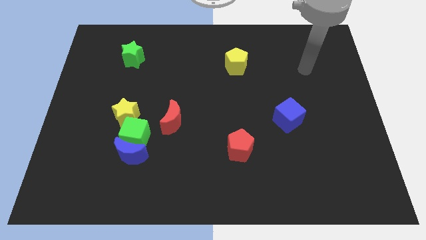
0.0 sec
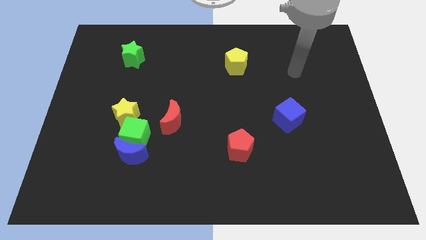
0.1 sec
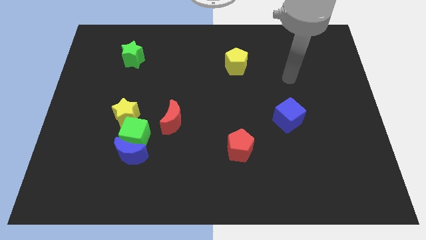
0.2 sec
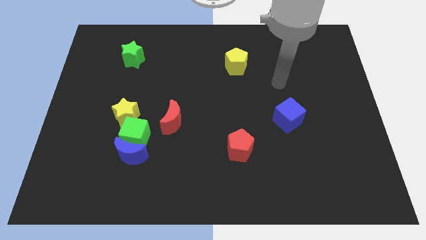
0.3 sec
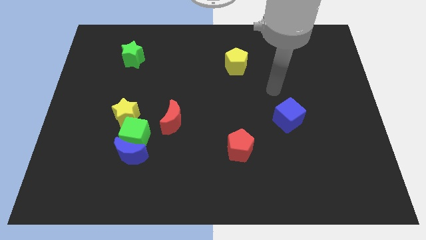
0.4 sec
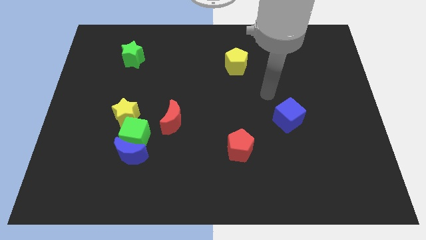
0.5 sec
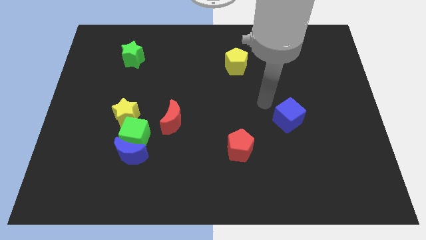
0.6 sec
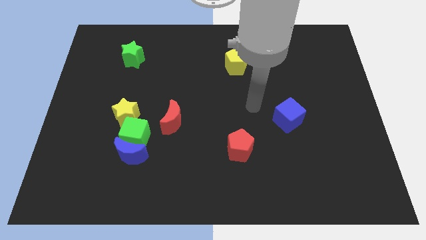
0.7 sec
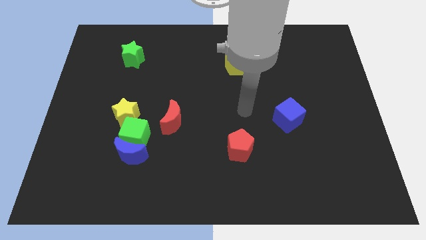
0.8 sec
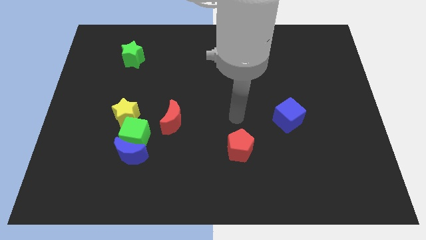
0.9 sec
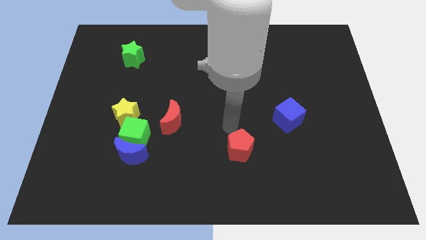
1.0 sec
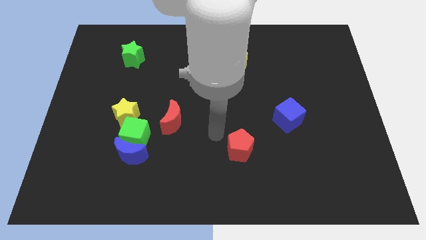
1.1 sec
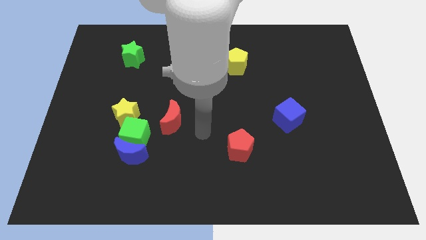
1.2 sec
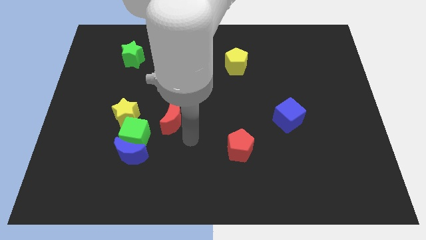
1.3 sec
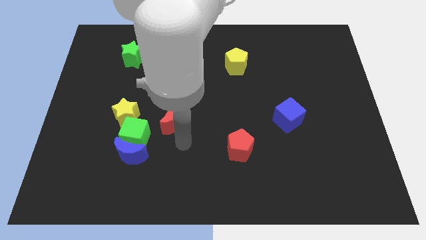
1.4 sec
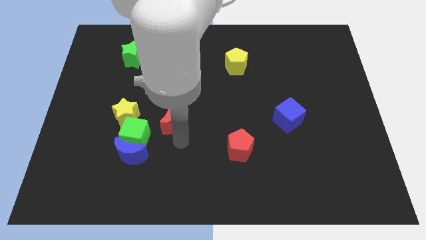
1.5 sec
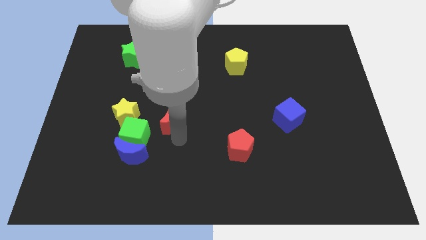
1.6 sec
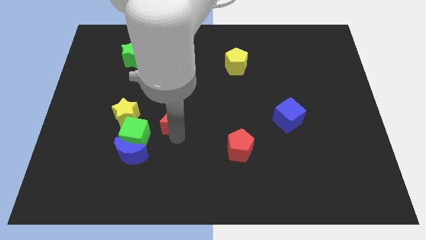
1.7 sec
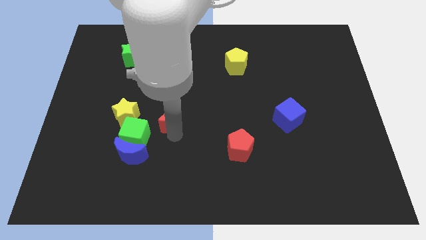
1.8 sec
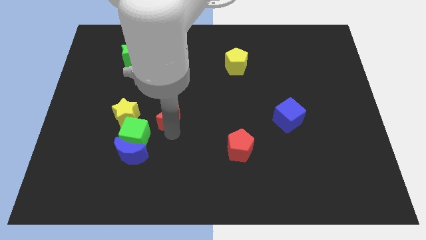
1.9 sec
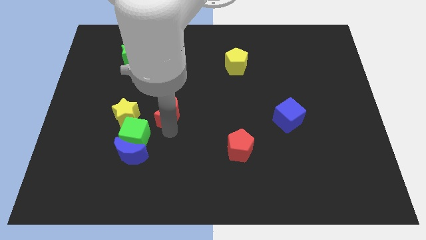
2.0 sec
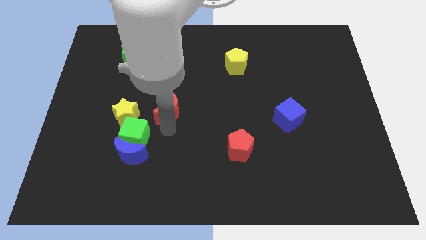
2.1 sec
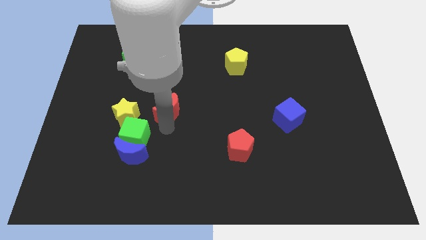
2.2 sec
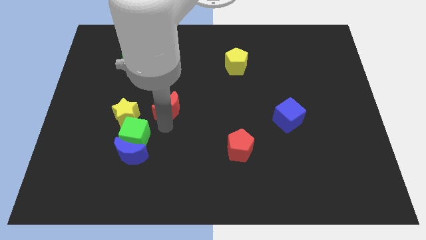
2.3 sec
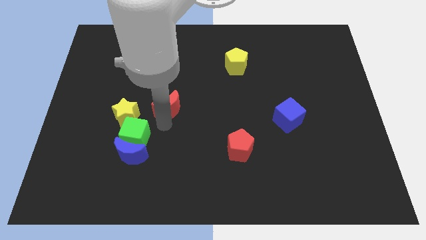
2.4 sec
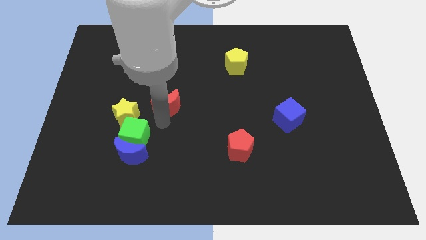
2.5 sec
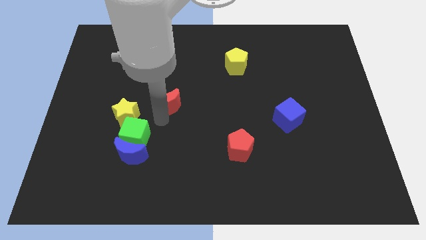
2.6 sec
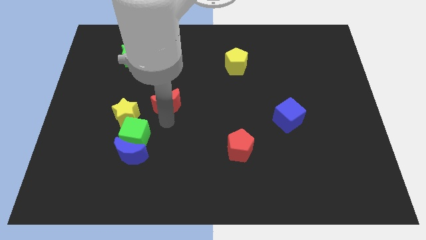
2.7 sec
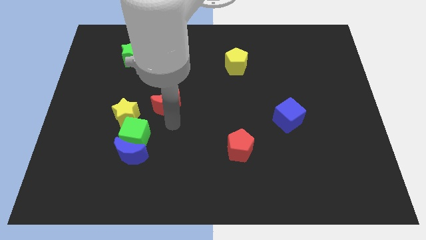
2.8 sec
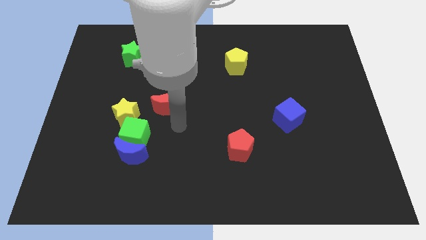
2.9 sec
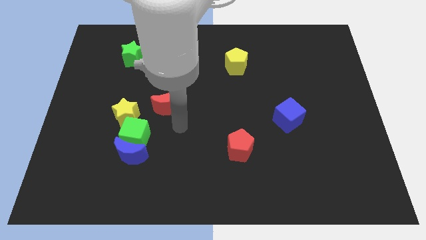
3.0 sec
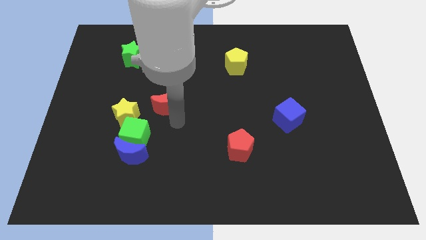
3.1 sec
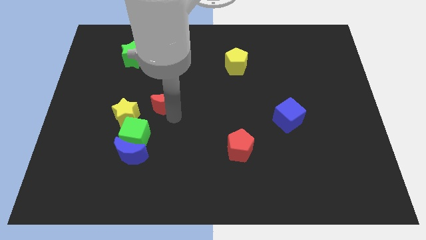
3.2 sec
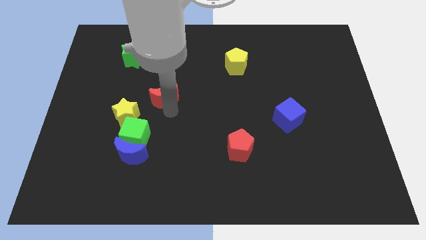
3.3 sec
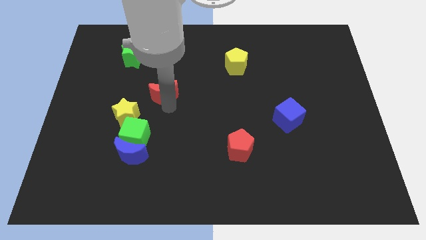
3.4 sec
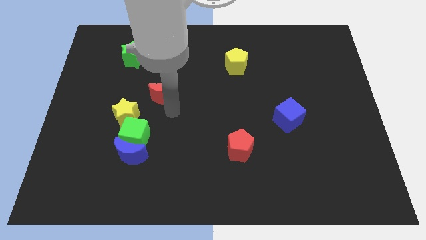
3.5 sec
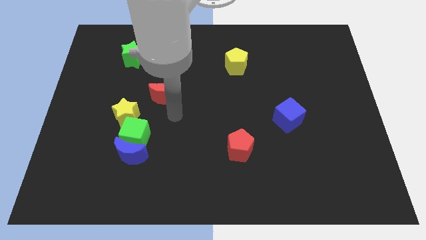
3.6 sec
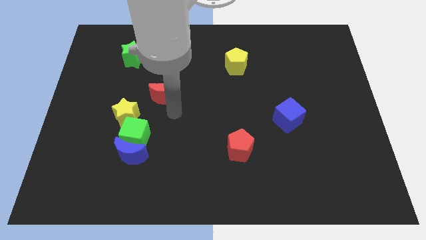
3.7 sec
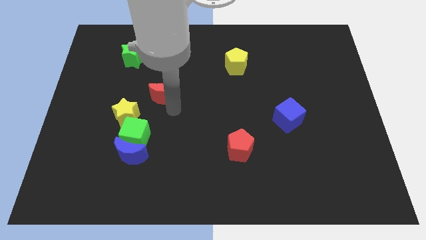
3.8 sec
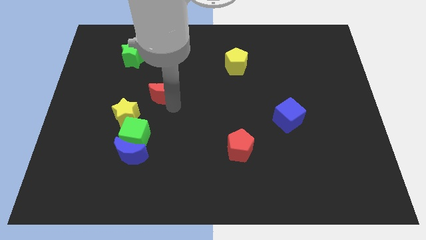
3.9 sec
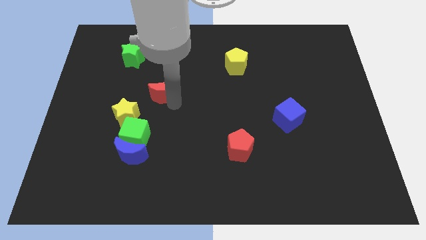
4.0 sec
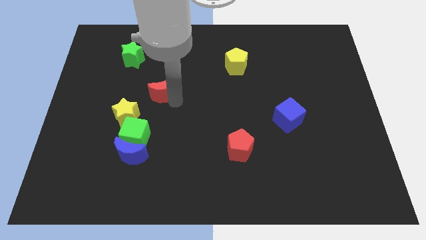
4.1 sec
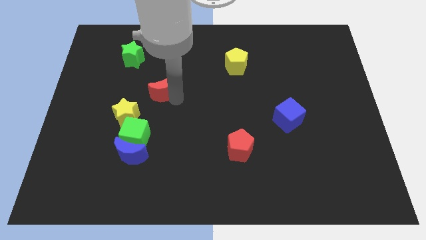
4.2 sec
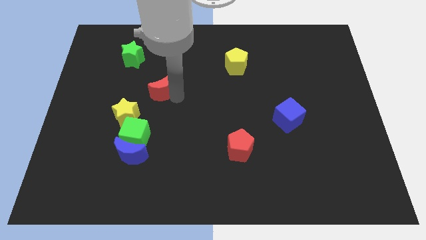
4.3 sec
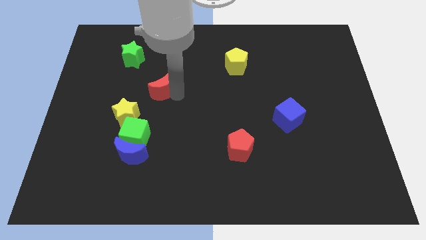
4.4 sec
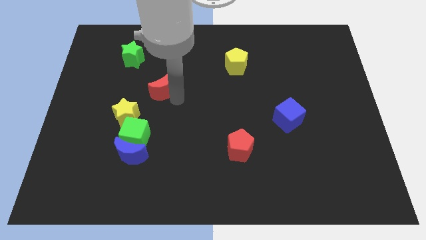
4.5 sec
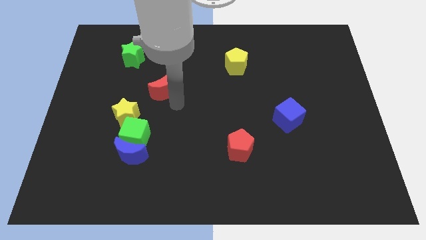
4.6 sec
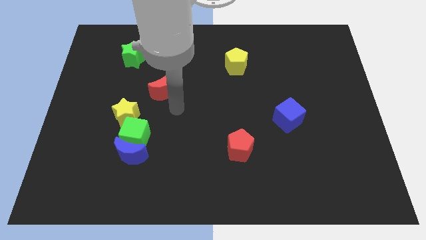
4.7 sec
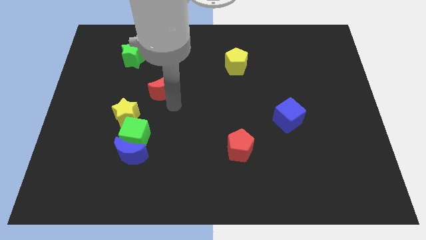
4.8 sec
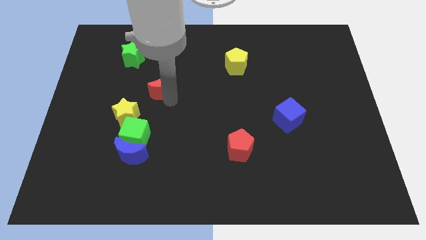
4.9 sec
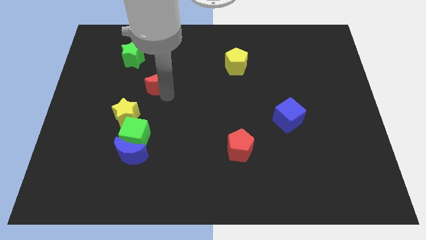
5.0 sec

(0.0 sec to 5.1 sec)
move the red moon diagonally down and to the right of the green star

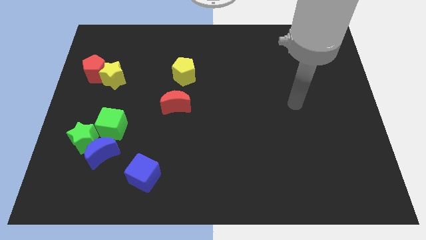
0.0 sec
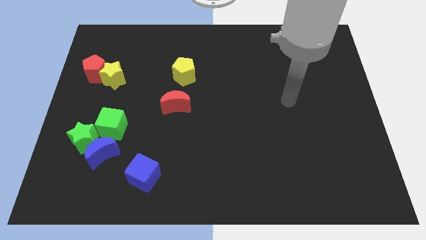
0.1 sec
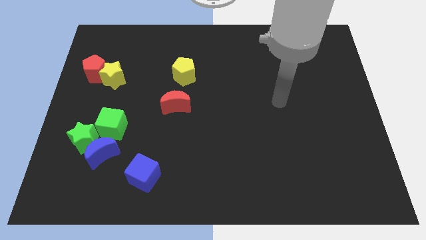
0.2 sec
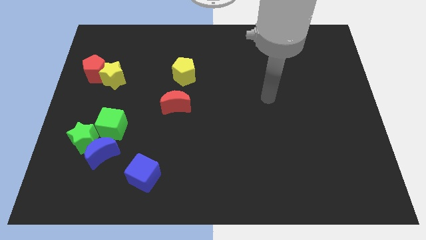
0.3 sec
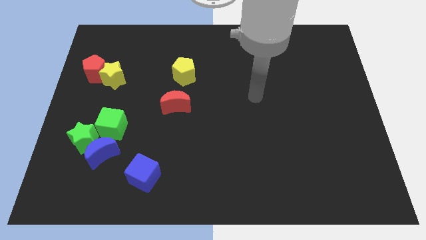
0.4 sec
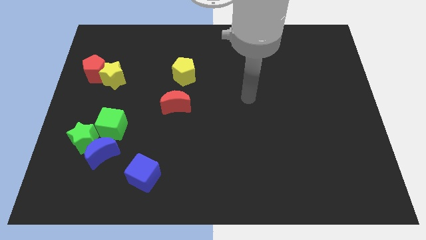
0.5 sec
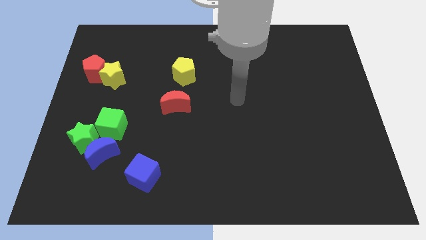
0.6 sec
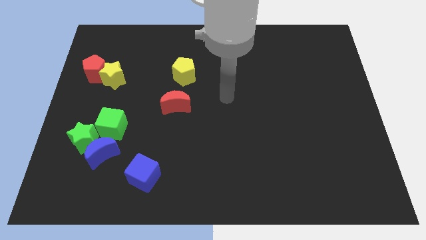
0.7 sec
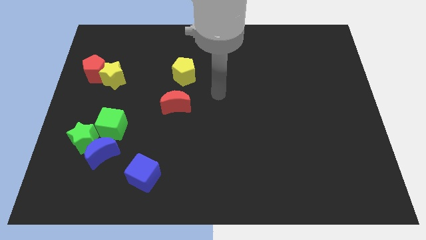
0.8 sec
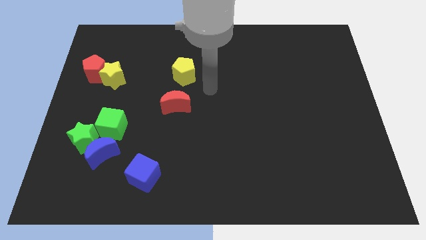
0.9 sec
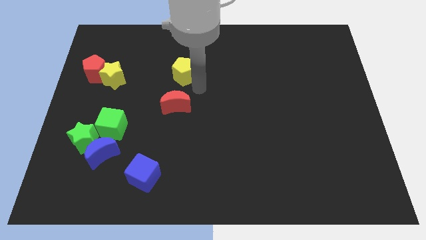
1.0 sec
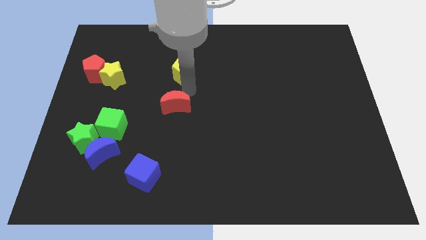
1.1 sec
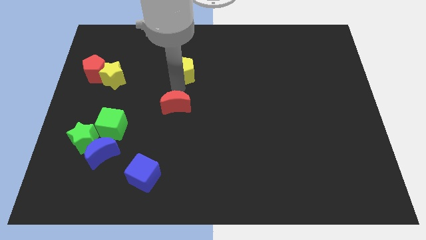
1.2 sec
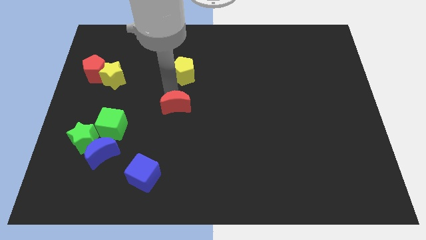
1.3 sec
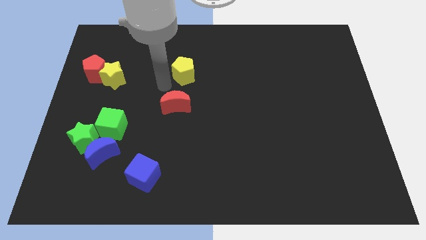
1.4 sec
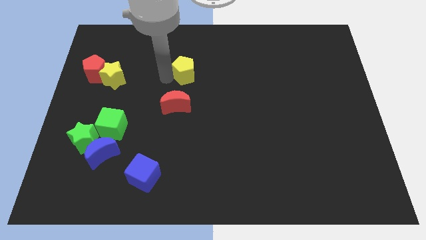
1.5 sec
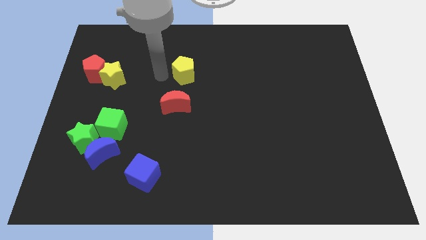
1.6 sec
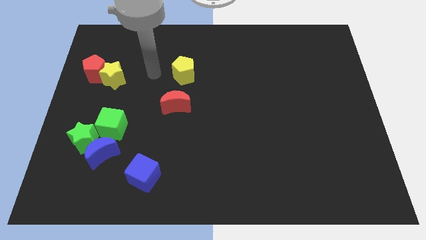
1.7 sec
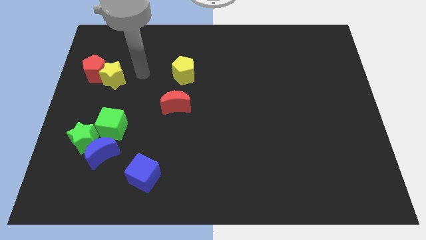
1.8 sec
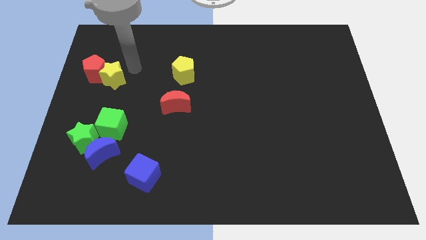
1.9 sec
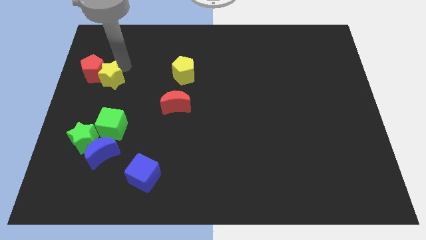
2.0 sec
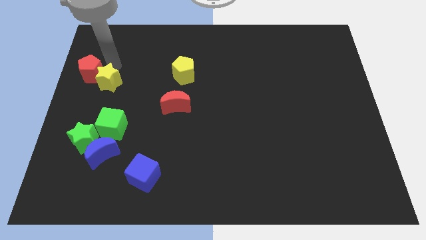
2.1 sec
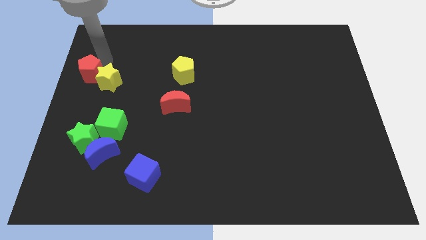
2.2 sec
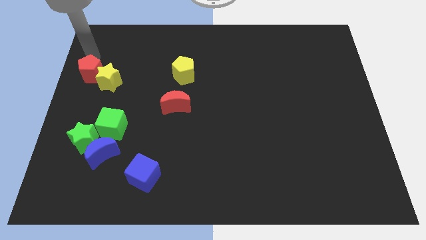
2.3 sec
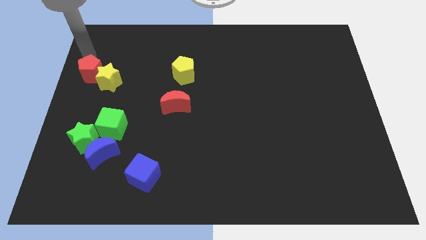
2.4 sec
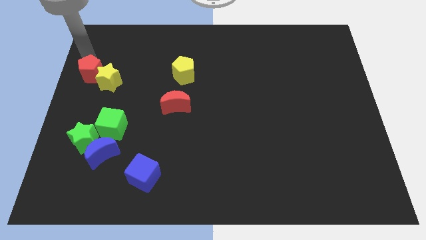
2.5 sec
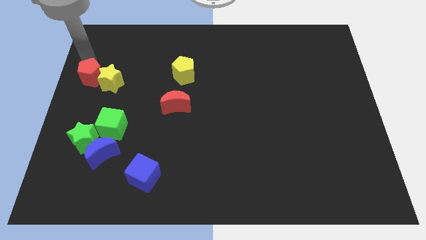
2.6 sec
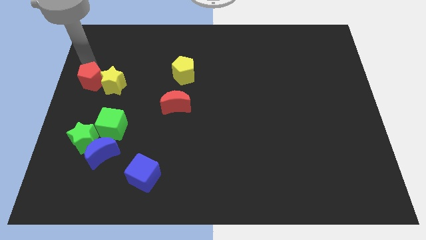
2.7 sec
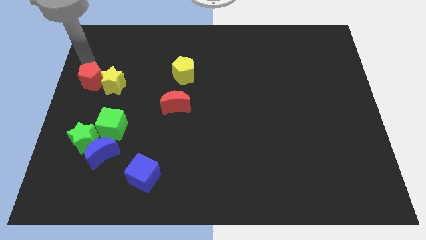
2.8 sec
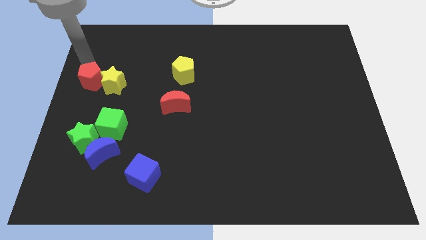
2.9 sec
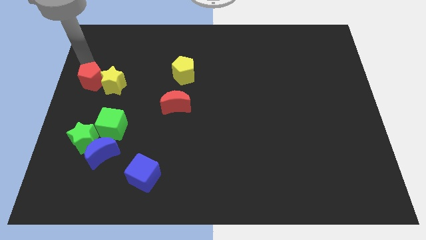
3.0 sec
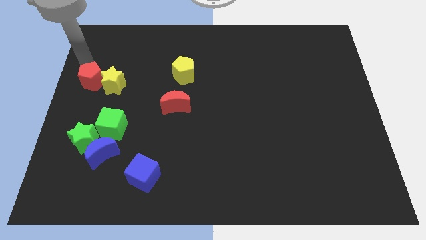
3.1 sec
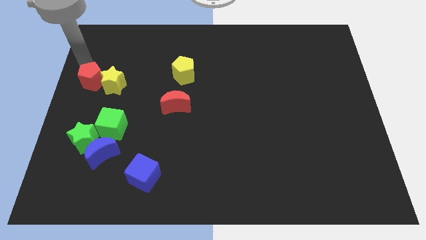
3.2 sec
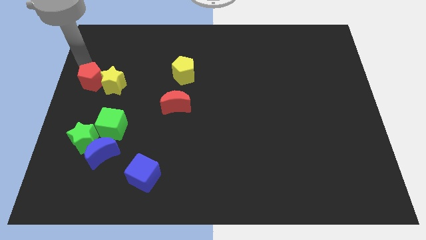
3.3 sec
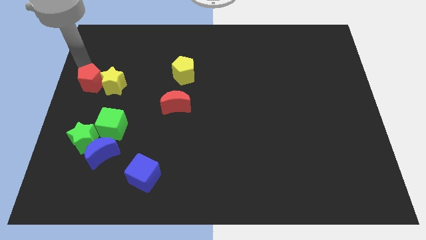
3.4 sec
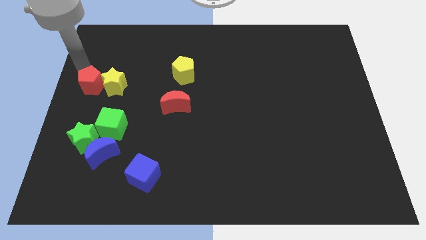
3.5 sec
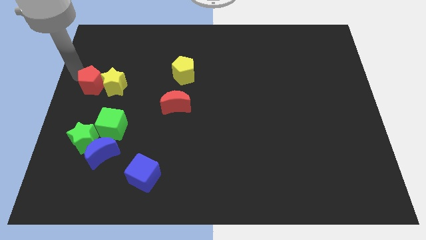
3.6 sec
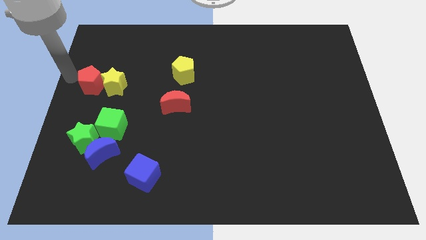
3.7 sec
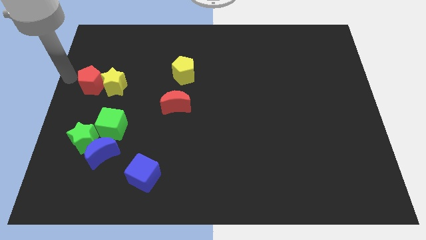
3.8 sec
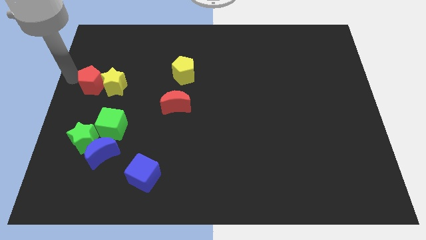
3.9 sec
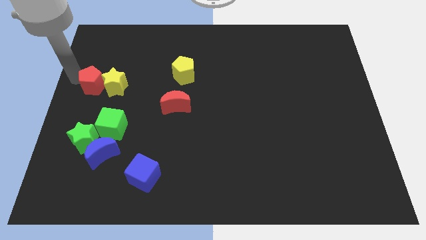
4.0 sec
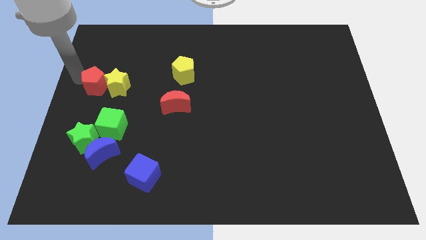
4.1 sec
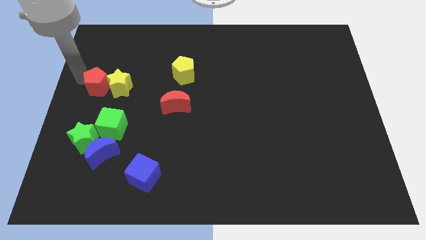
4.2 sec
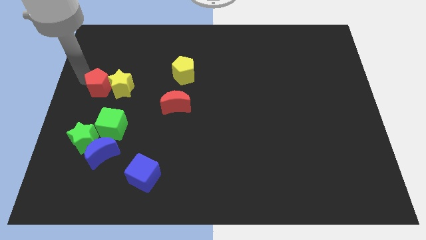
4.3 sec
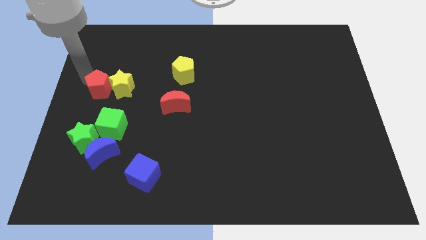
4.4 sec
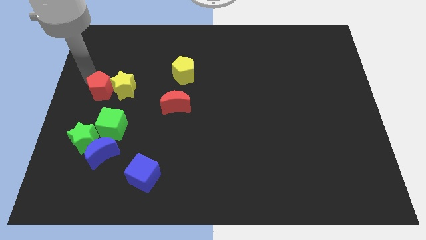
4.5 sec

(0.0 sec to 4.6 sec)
put the red pentagon to the top side of the green cube
